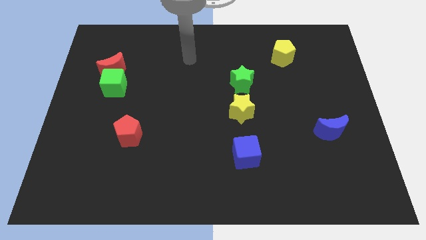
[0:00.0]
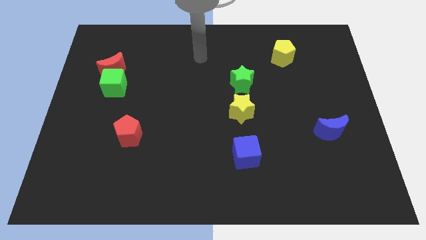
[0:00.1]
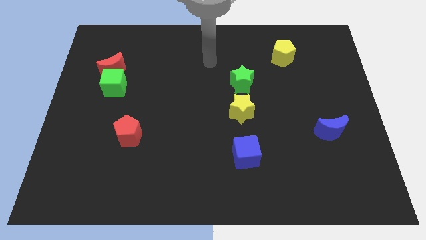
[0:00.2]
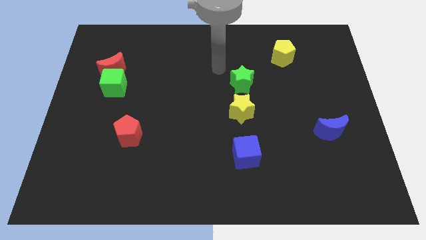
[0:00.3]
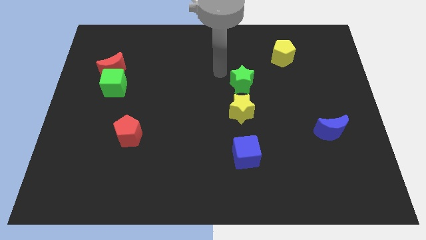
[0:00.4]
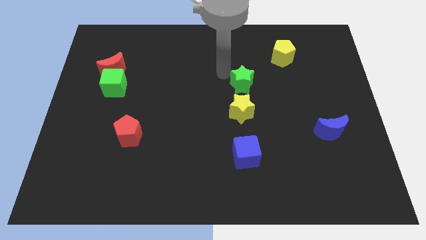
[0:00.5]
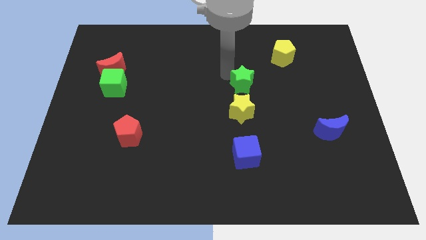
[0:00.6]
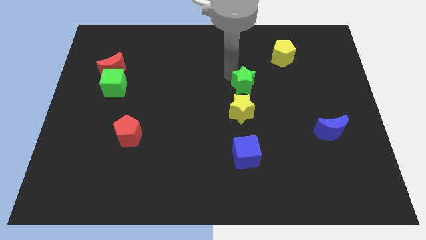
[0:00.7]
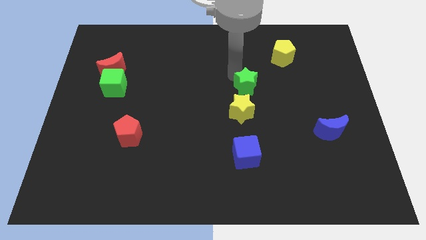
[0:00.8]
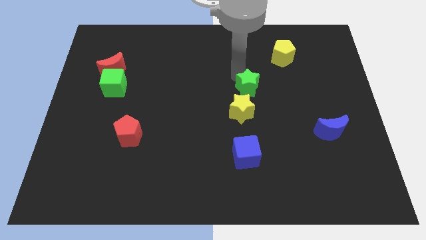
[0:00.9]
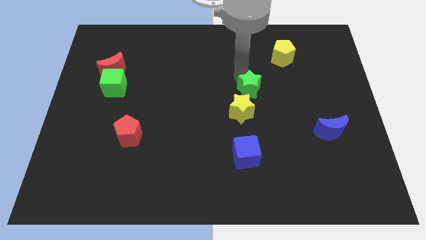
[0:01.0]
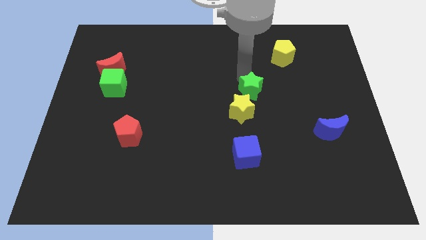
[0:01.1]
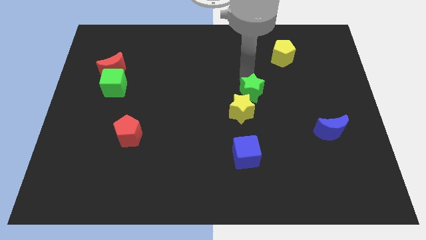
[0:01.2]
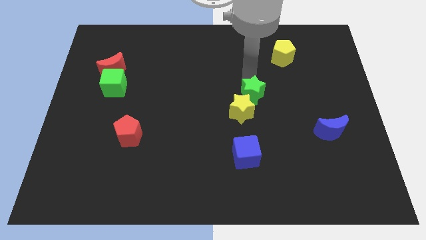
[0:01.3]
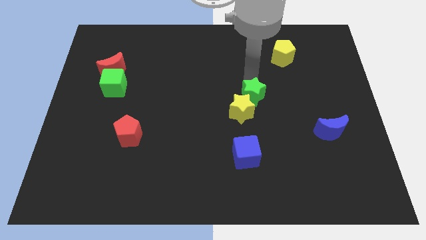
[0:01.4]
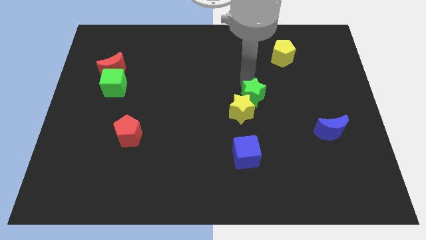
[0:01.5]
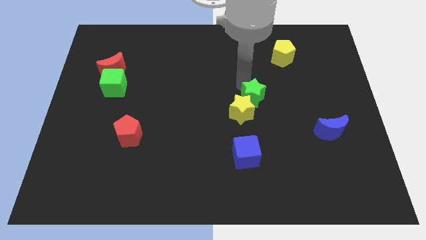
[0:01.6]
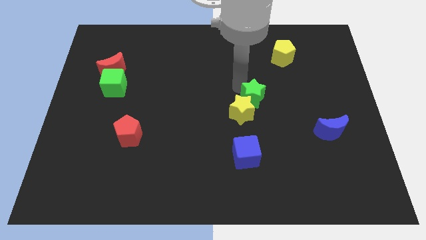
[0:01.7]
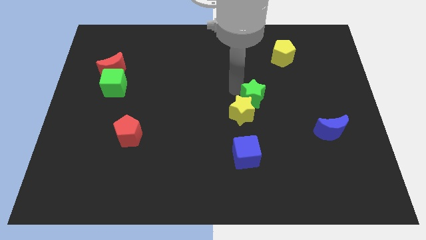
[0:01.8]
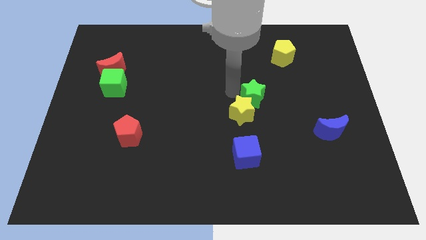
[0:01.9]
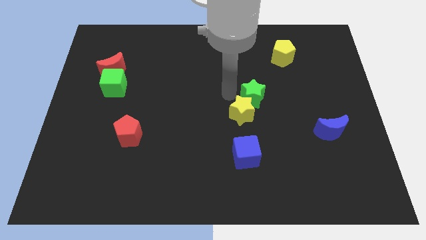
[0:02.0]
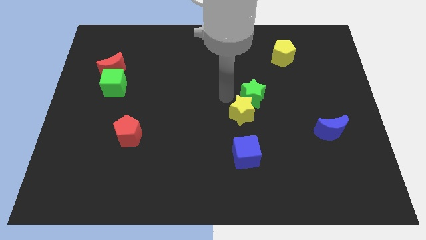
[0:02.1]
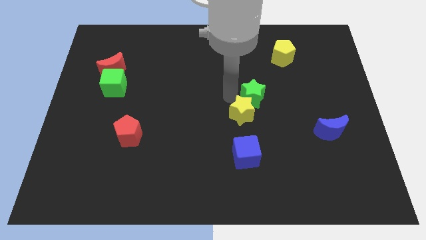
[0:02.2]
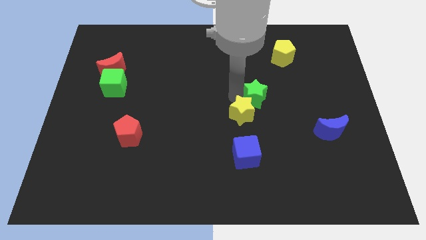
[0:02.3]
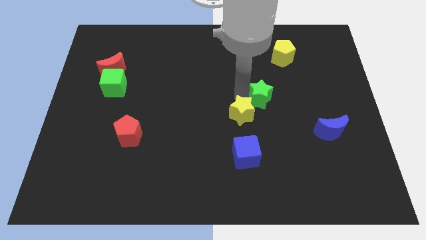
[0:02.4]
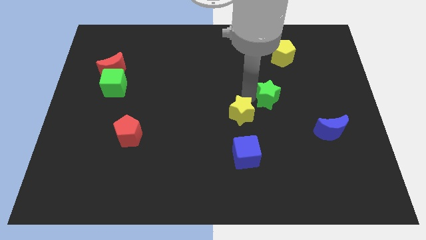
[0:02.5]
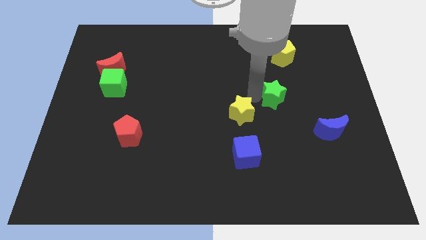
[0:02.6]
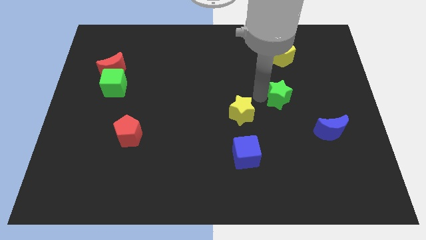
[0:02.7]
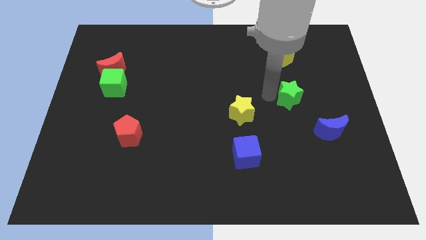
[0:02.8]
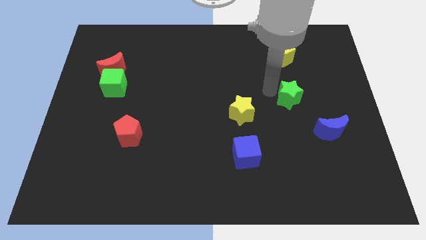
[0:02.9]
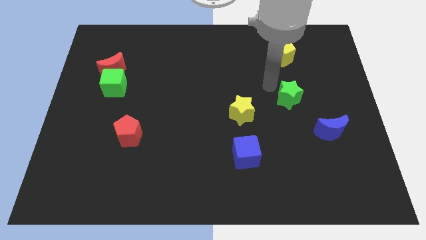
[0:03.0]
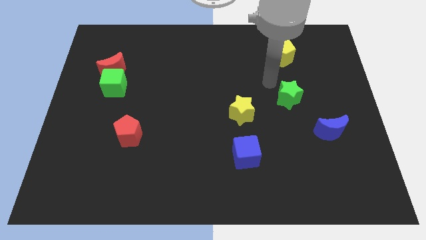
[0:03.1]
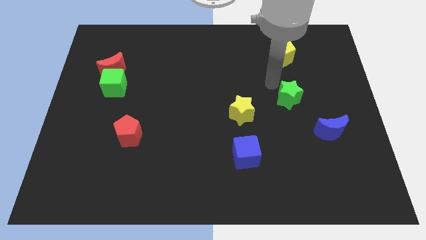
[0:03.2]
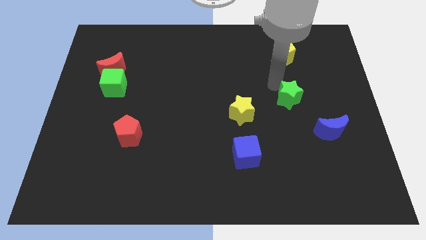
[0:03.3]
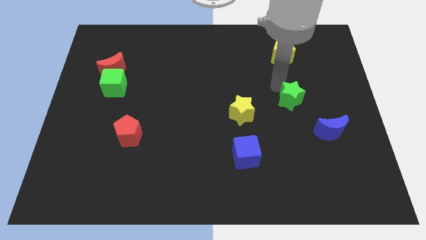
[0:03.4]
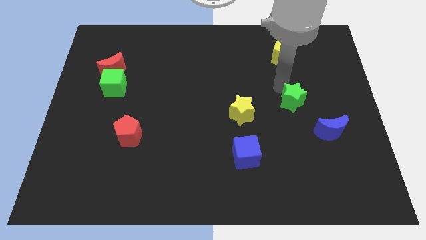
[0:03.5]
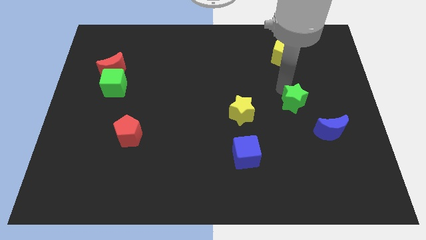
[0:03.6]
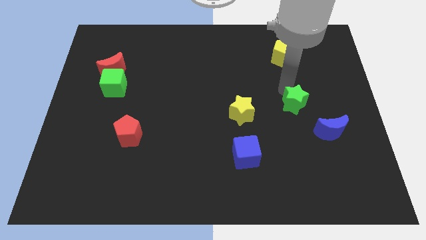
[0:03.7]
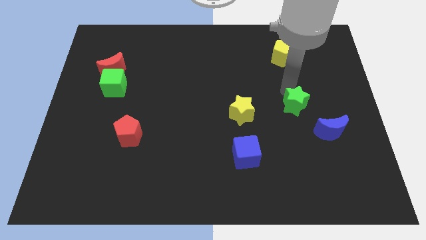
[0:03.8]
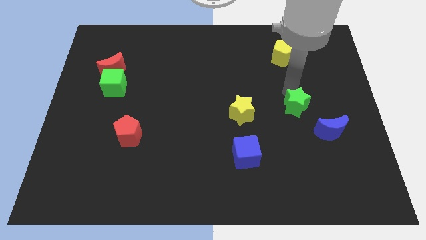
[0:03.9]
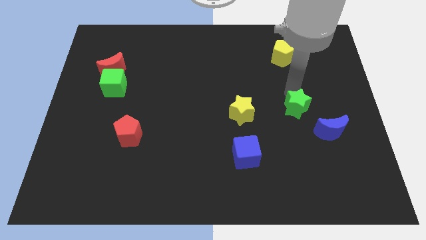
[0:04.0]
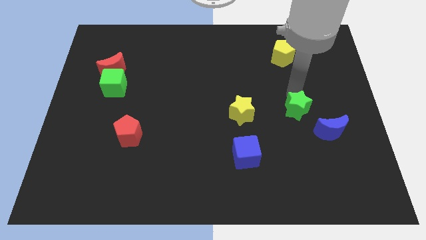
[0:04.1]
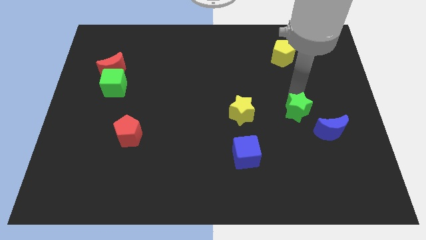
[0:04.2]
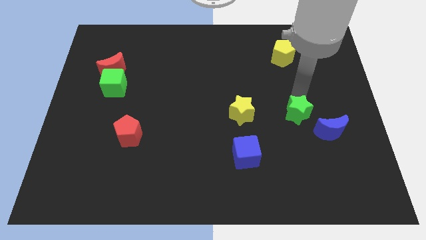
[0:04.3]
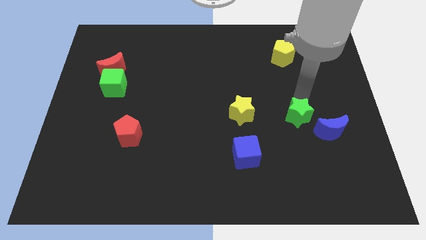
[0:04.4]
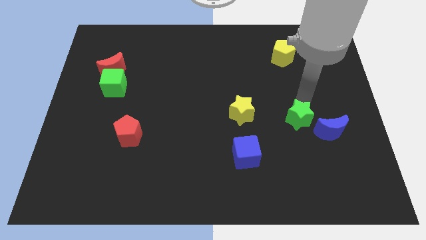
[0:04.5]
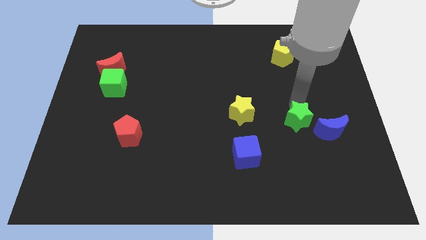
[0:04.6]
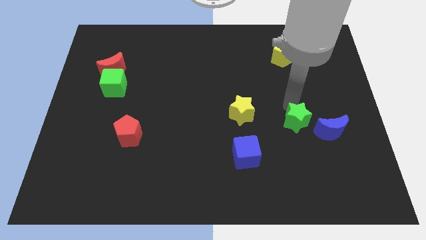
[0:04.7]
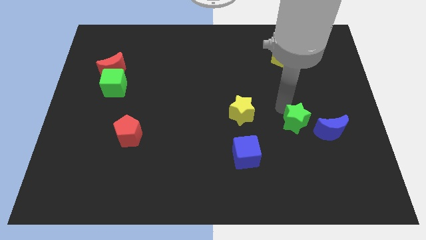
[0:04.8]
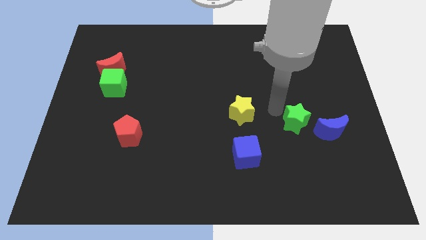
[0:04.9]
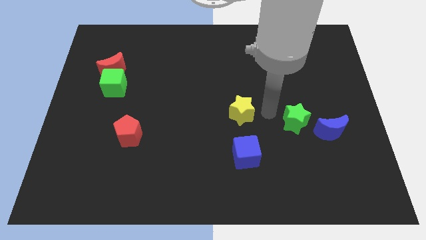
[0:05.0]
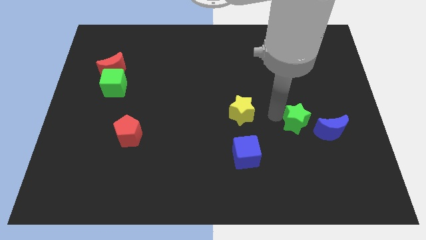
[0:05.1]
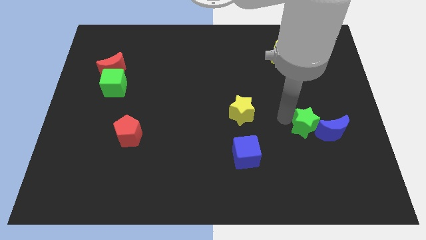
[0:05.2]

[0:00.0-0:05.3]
move the green star towards the blue moon

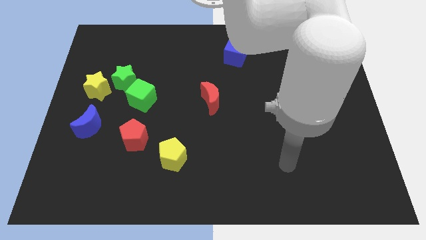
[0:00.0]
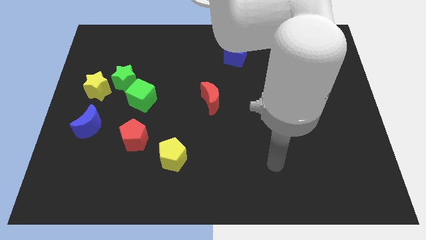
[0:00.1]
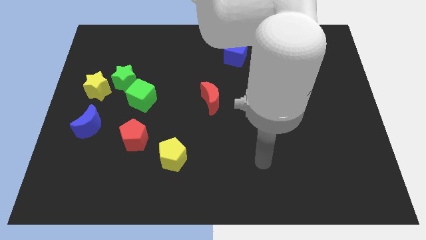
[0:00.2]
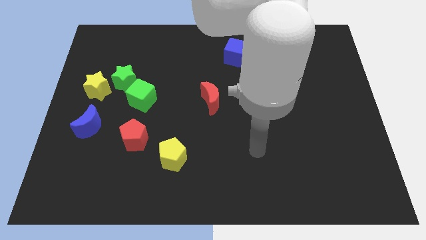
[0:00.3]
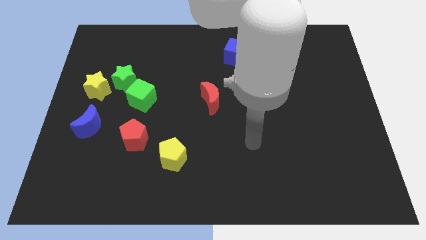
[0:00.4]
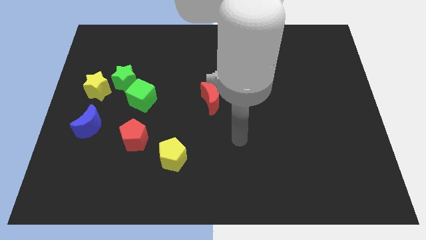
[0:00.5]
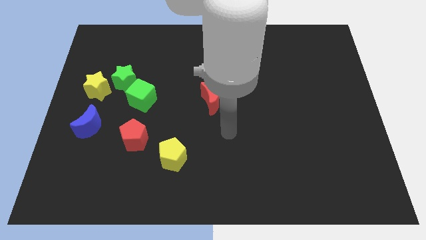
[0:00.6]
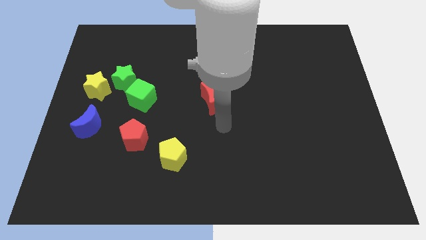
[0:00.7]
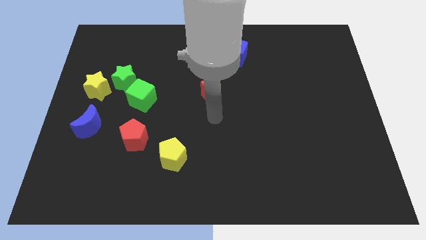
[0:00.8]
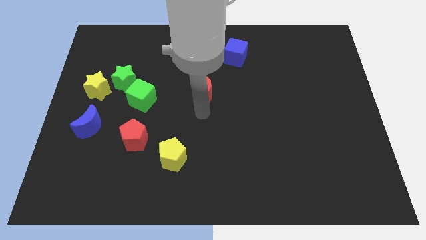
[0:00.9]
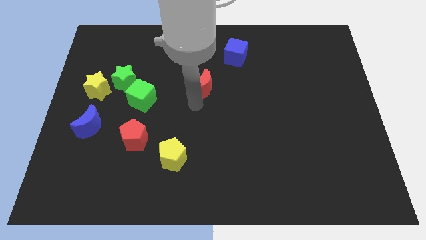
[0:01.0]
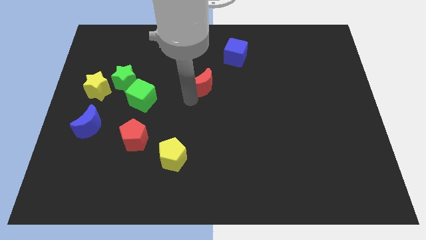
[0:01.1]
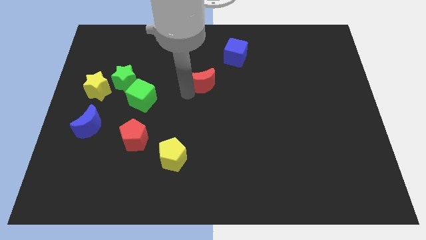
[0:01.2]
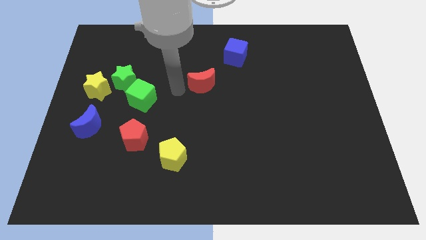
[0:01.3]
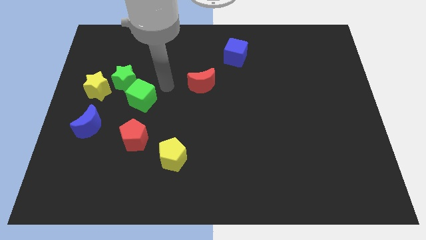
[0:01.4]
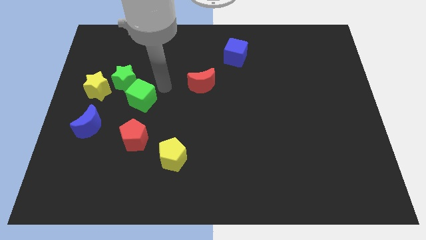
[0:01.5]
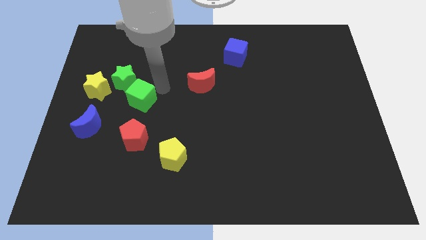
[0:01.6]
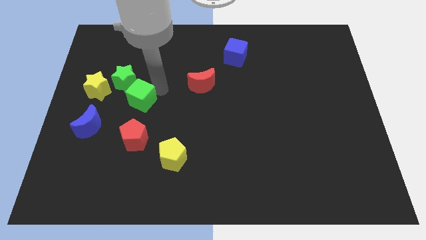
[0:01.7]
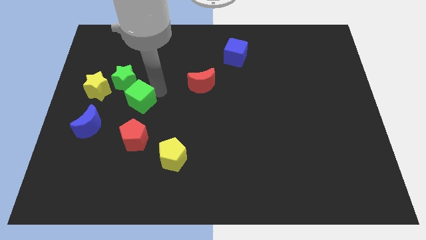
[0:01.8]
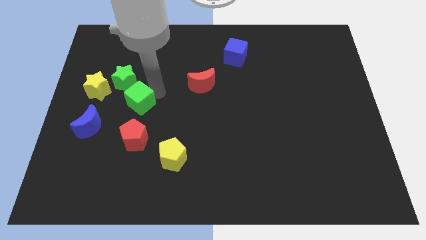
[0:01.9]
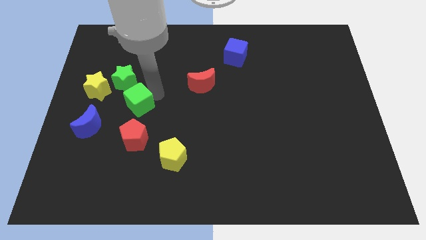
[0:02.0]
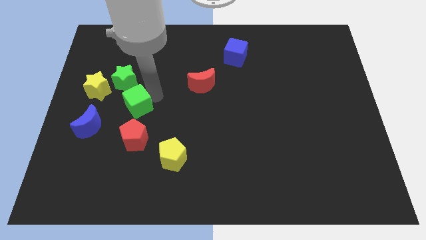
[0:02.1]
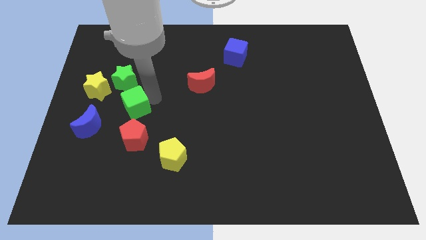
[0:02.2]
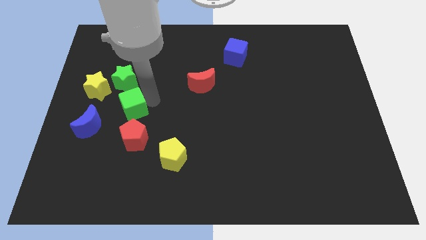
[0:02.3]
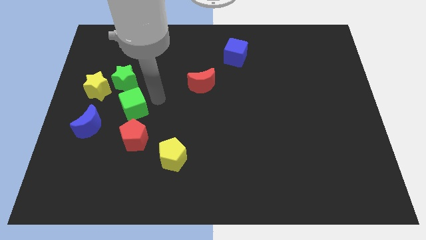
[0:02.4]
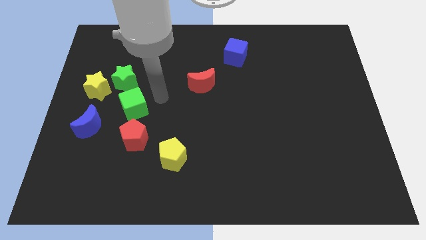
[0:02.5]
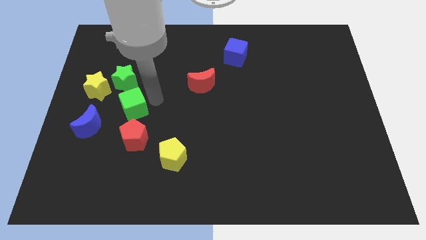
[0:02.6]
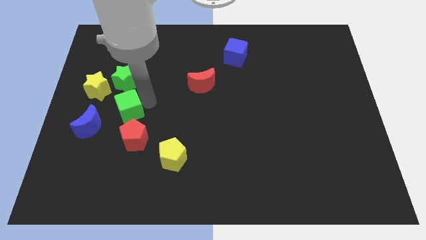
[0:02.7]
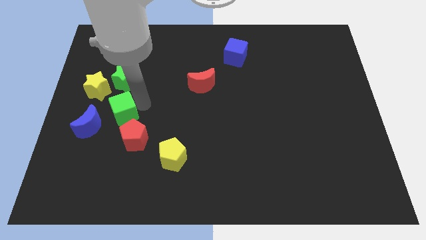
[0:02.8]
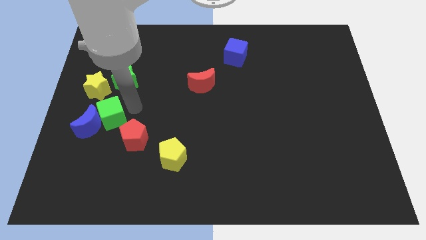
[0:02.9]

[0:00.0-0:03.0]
put the green cube to the blue moon

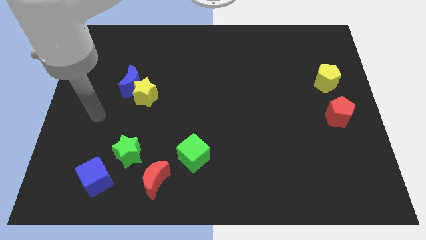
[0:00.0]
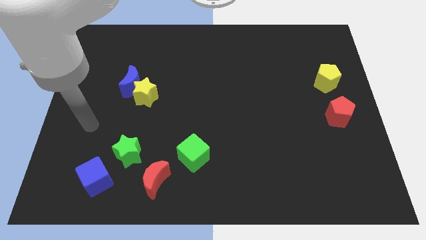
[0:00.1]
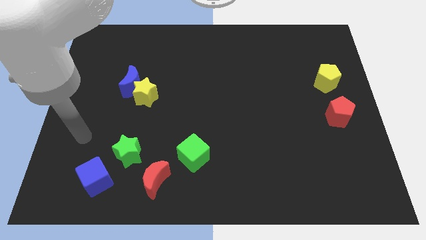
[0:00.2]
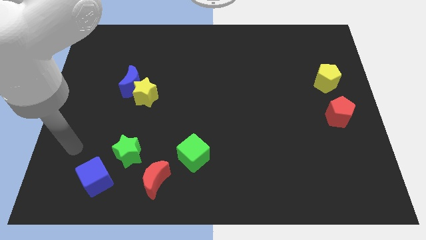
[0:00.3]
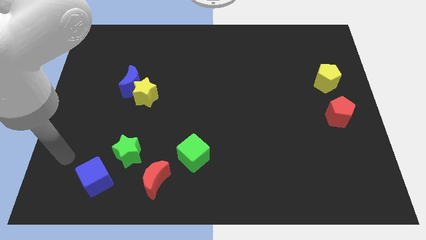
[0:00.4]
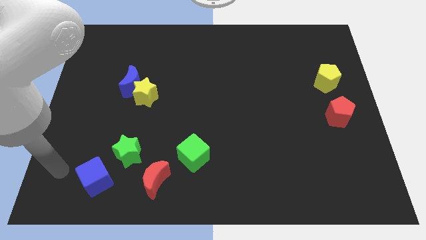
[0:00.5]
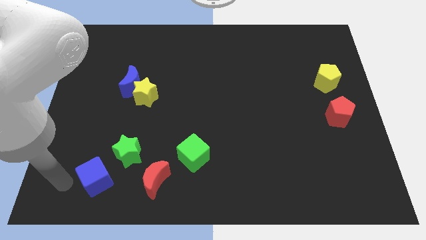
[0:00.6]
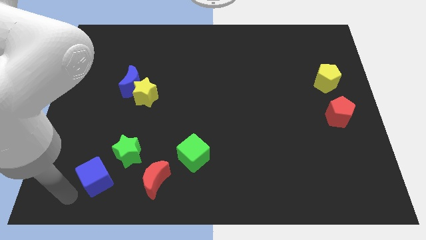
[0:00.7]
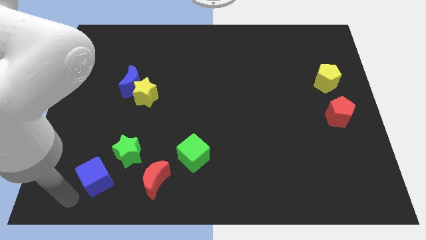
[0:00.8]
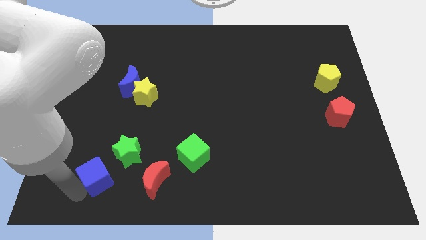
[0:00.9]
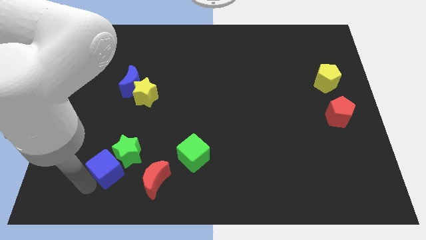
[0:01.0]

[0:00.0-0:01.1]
slide the blue cube close to the green star
